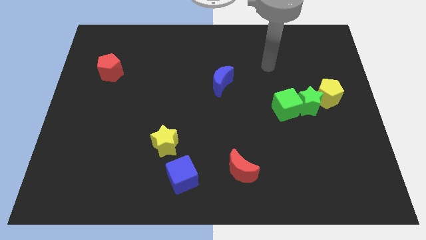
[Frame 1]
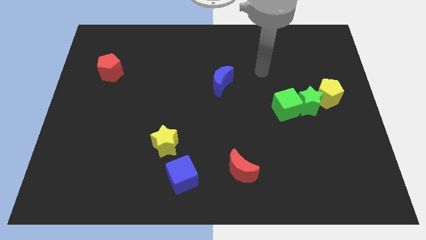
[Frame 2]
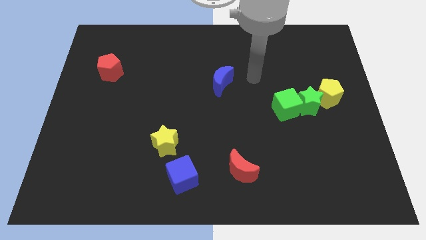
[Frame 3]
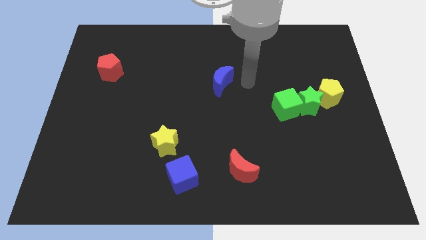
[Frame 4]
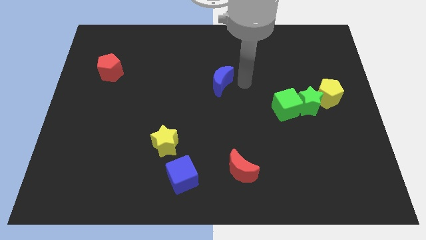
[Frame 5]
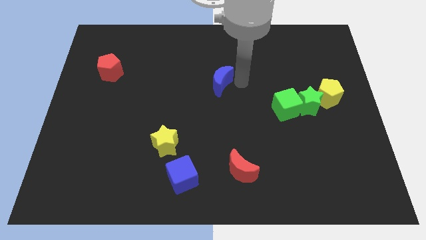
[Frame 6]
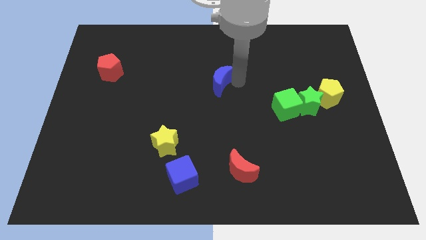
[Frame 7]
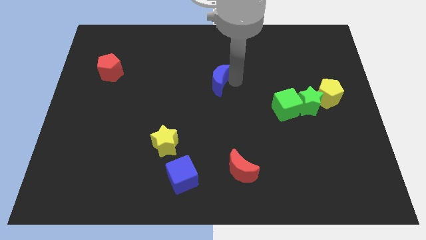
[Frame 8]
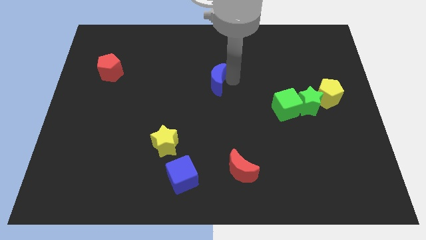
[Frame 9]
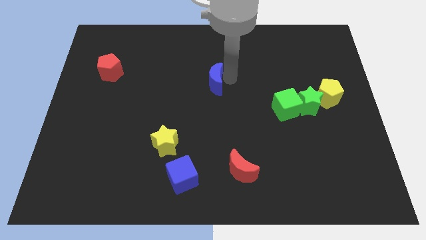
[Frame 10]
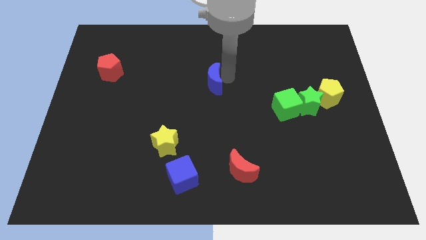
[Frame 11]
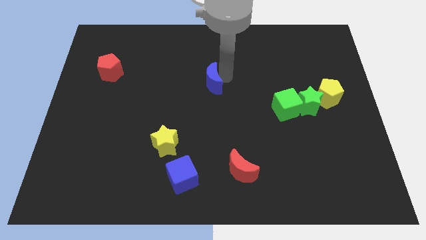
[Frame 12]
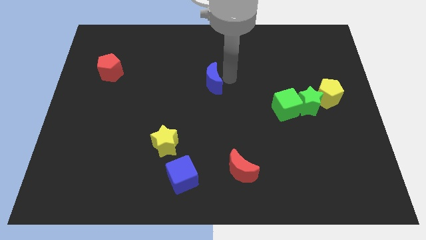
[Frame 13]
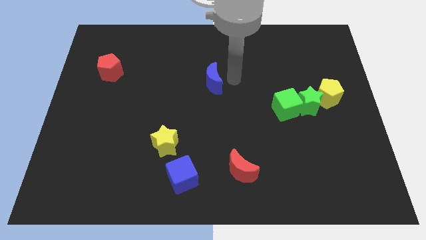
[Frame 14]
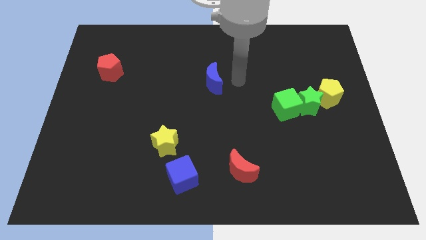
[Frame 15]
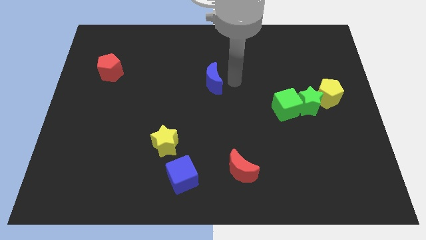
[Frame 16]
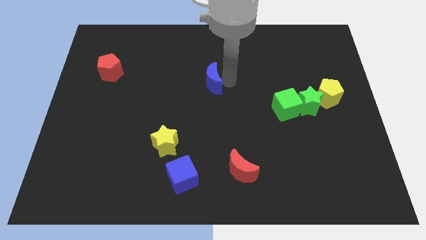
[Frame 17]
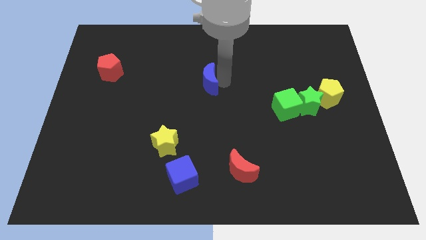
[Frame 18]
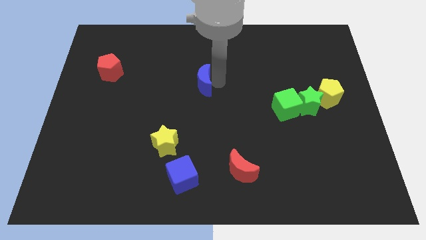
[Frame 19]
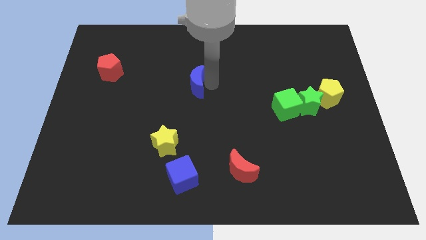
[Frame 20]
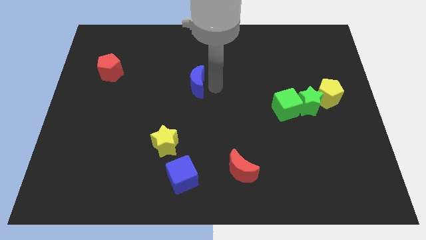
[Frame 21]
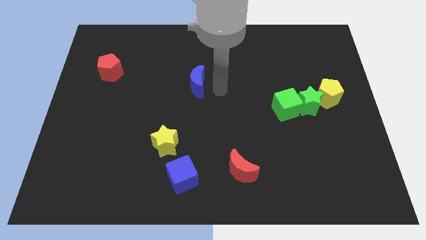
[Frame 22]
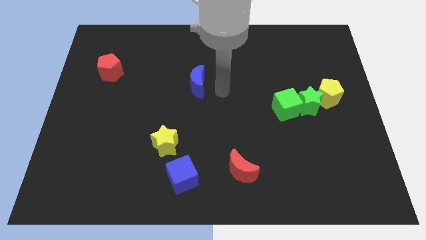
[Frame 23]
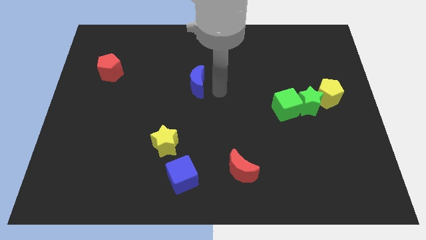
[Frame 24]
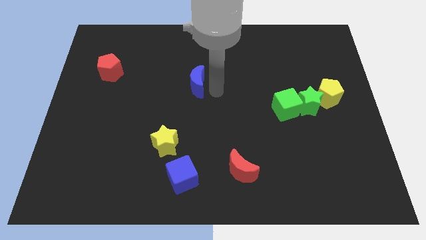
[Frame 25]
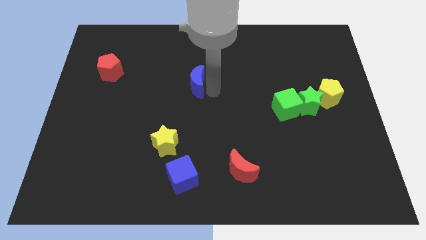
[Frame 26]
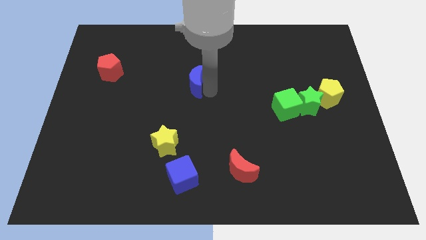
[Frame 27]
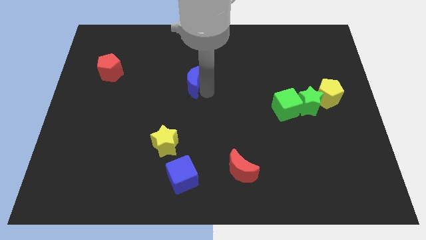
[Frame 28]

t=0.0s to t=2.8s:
slide the blue moon a little to the left

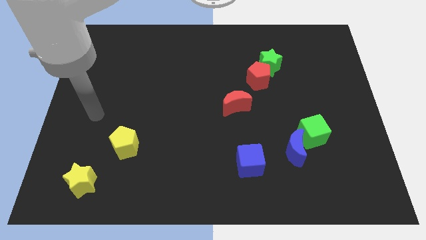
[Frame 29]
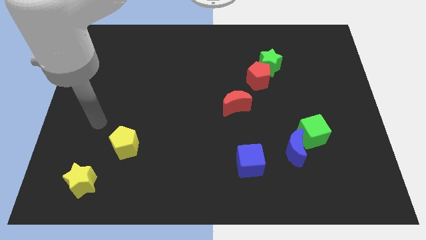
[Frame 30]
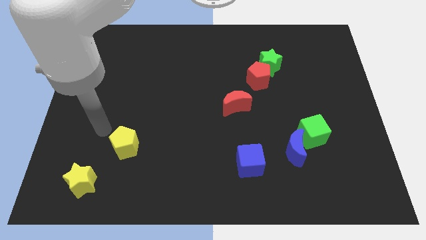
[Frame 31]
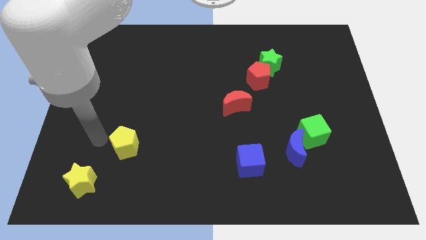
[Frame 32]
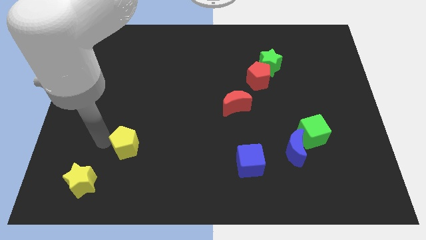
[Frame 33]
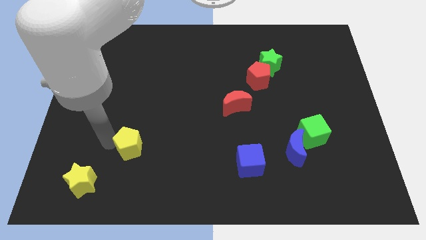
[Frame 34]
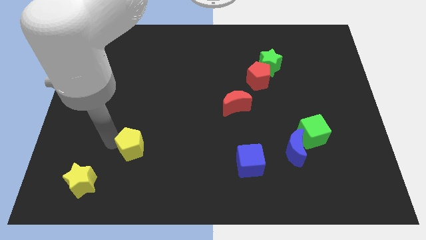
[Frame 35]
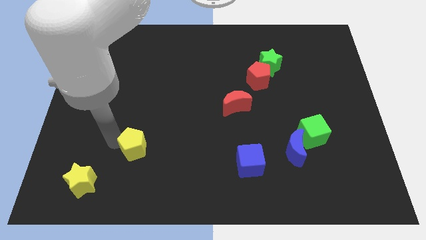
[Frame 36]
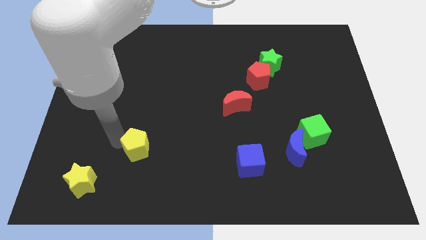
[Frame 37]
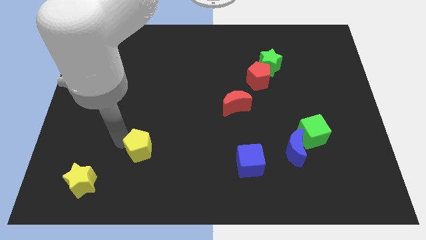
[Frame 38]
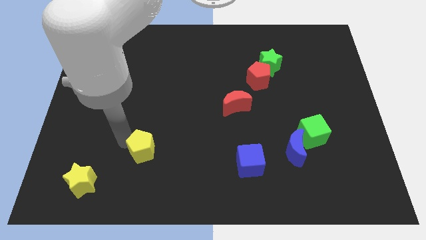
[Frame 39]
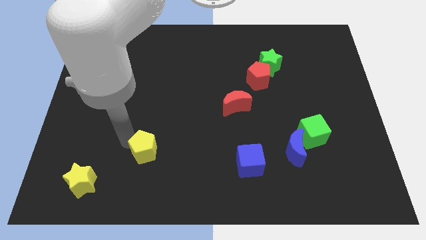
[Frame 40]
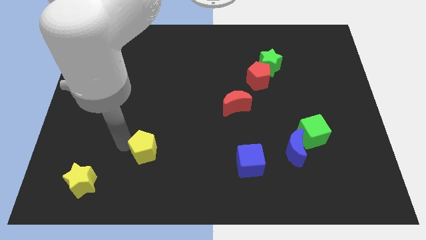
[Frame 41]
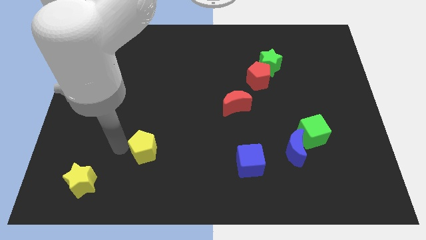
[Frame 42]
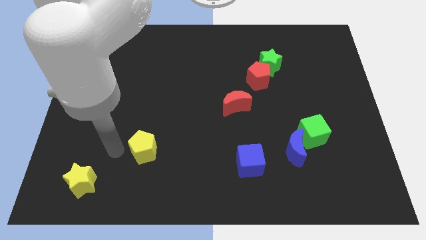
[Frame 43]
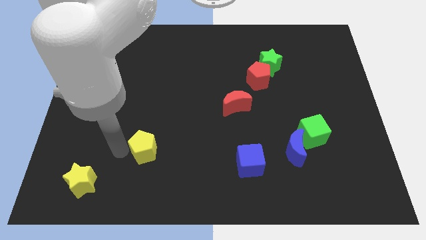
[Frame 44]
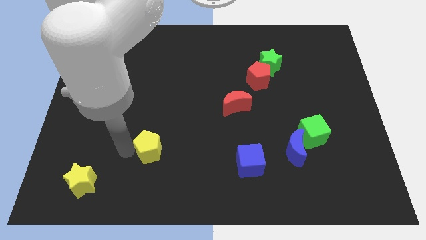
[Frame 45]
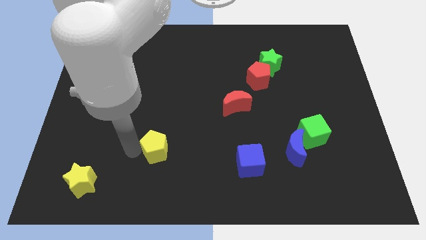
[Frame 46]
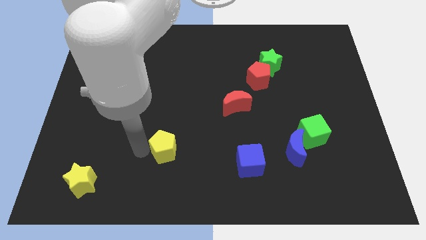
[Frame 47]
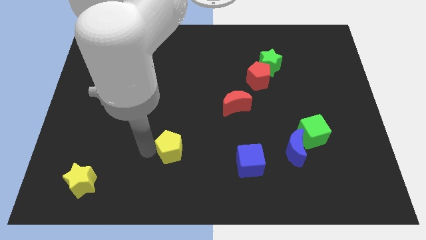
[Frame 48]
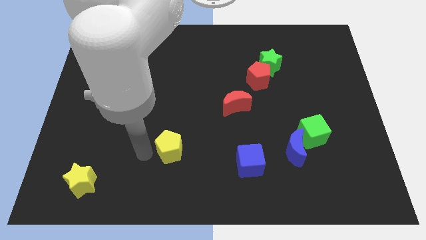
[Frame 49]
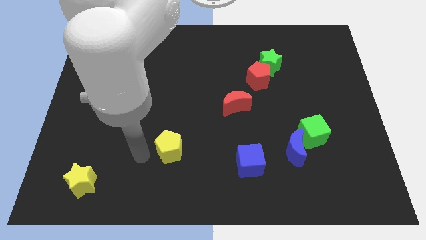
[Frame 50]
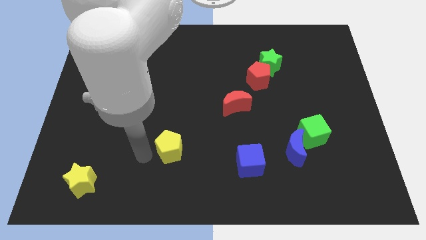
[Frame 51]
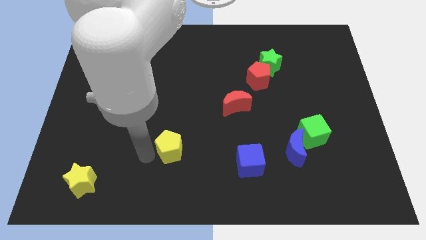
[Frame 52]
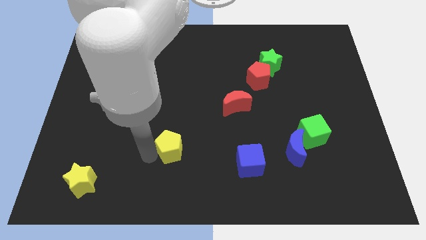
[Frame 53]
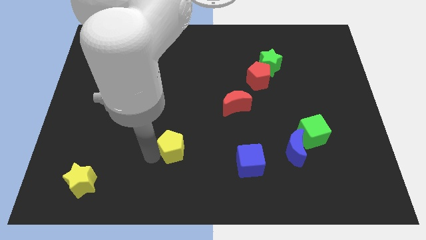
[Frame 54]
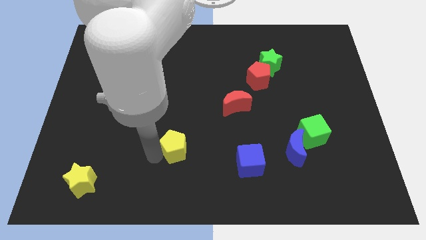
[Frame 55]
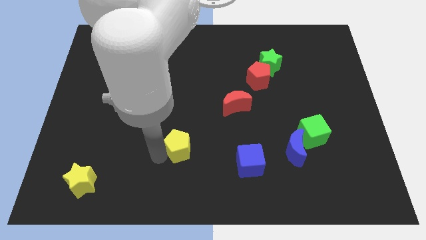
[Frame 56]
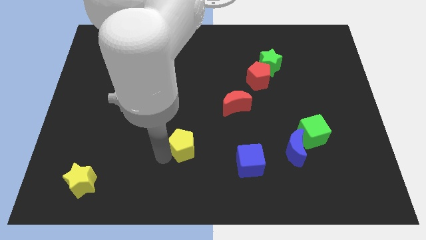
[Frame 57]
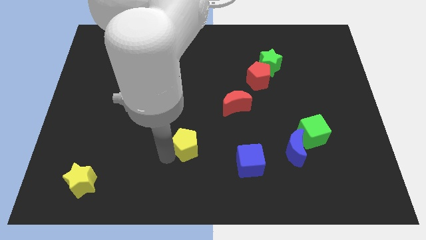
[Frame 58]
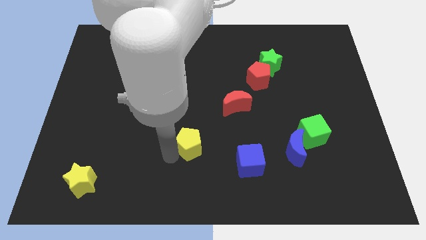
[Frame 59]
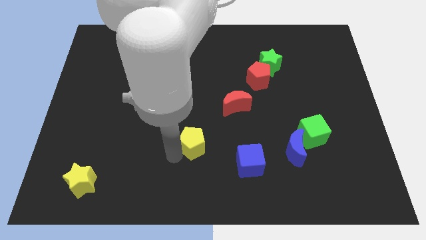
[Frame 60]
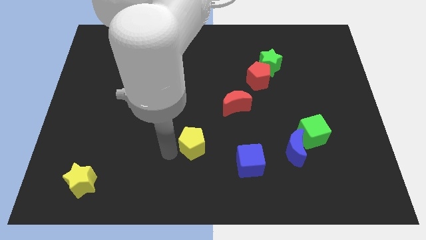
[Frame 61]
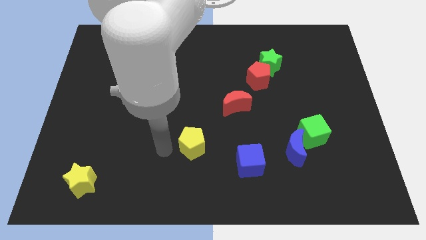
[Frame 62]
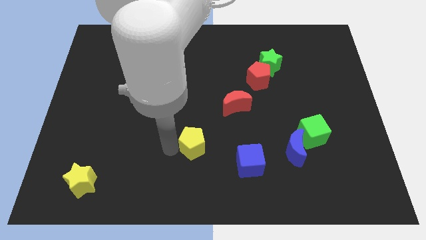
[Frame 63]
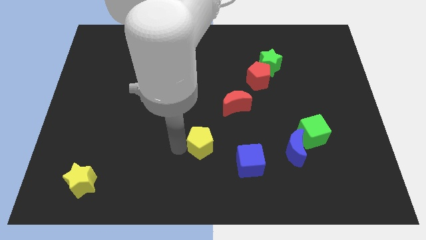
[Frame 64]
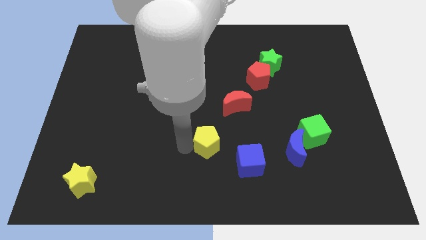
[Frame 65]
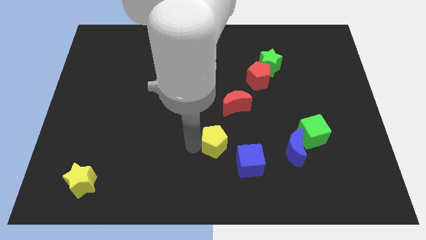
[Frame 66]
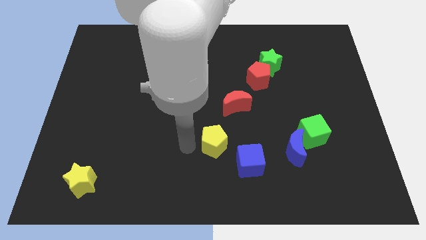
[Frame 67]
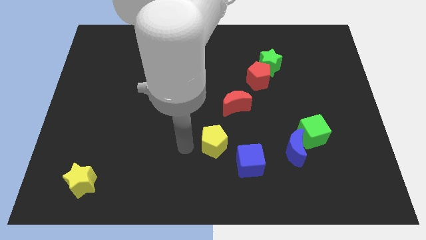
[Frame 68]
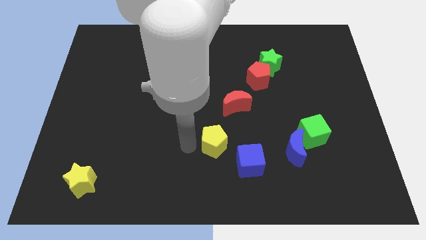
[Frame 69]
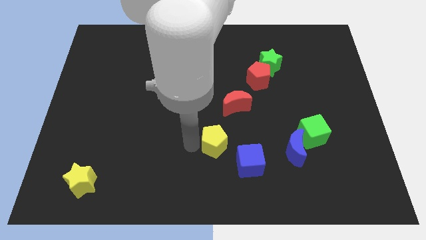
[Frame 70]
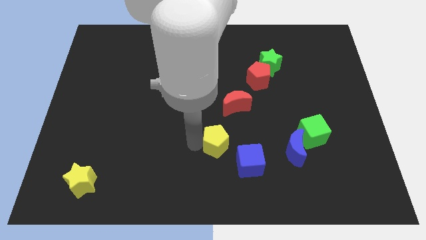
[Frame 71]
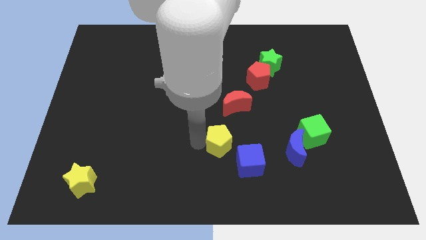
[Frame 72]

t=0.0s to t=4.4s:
move the yellow pentagon right

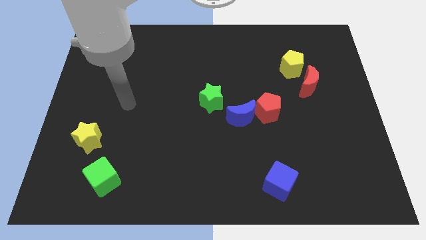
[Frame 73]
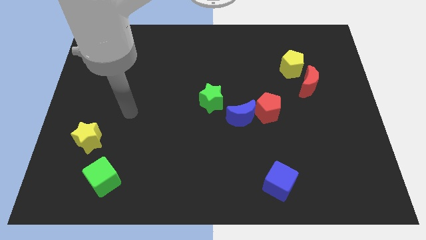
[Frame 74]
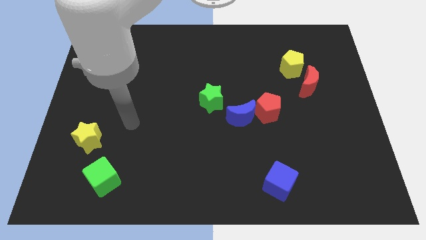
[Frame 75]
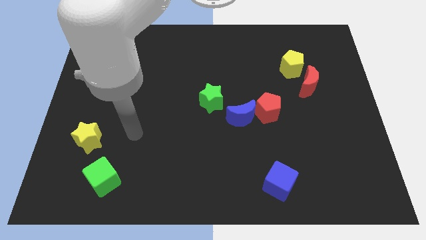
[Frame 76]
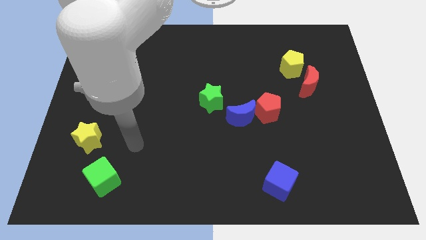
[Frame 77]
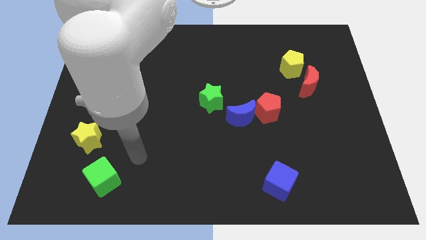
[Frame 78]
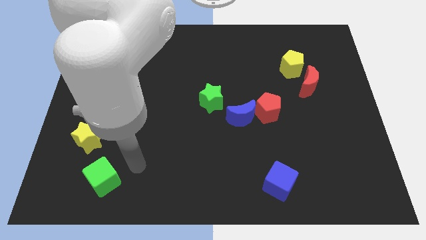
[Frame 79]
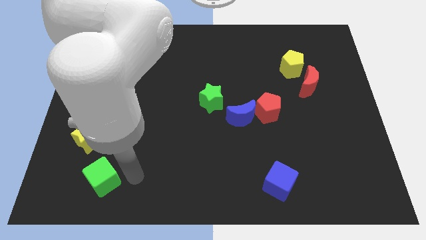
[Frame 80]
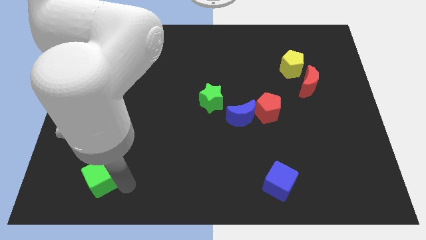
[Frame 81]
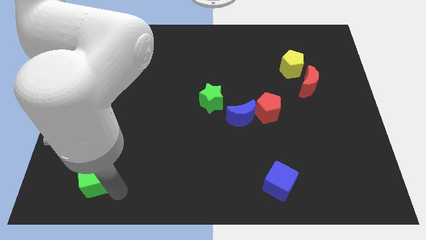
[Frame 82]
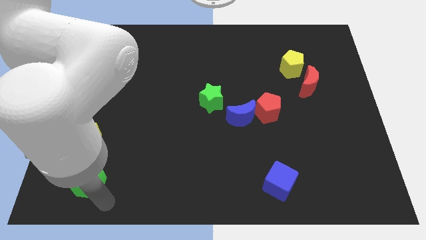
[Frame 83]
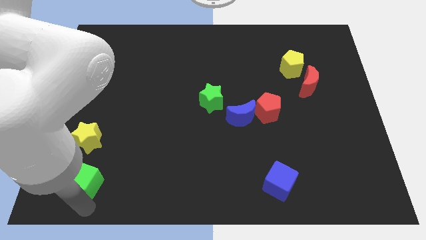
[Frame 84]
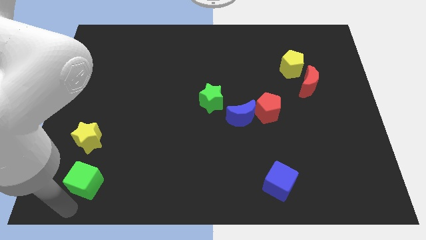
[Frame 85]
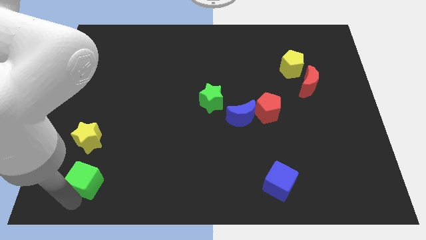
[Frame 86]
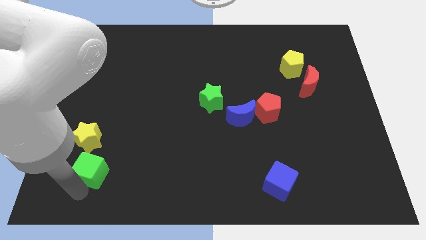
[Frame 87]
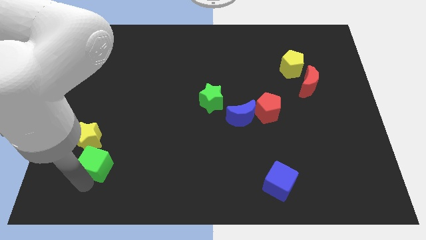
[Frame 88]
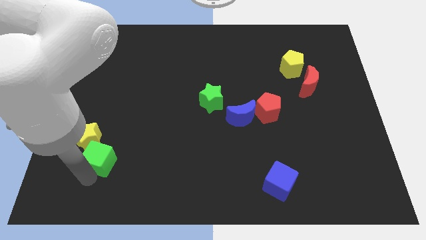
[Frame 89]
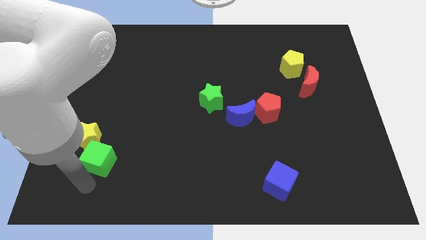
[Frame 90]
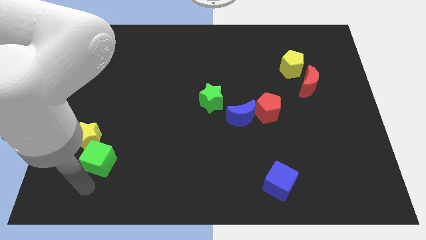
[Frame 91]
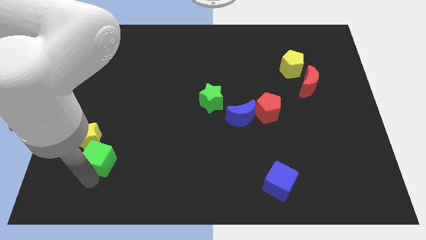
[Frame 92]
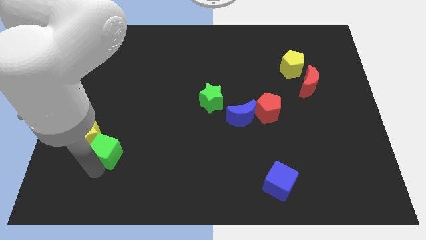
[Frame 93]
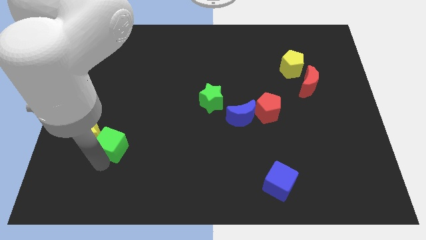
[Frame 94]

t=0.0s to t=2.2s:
push the green cube upwards a bit
